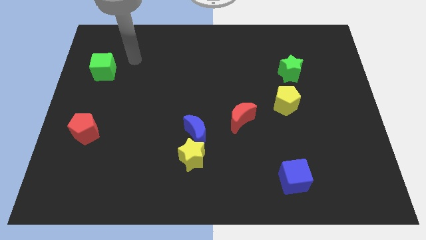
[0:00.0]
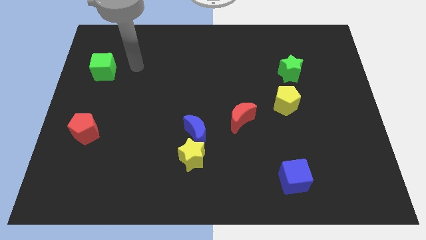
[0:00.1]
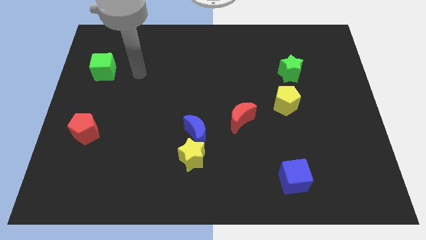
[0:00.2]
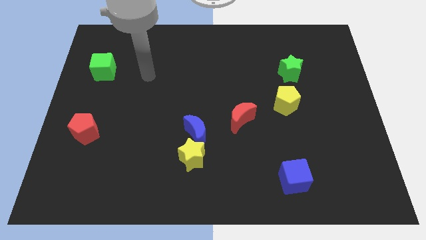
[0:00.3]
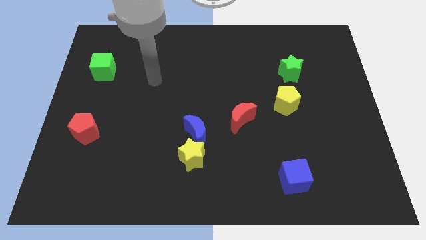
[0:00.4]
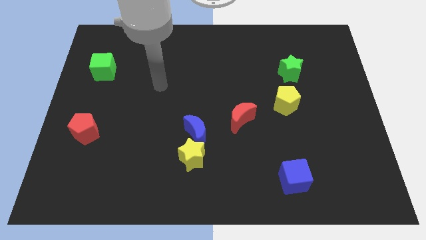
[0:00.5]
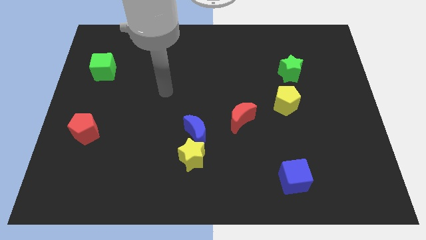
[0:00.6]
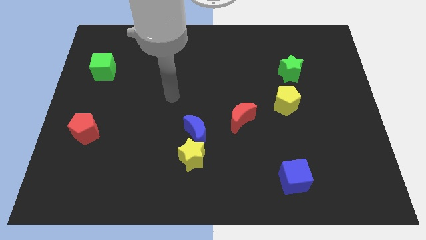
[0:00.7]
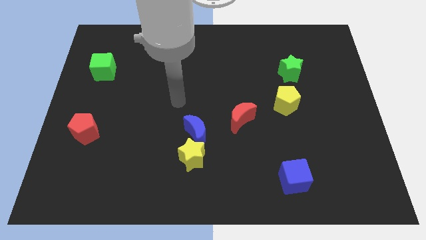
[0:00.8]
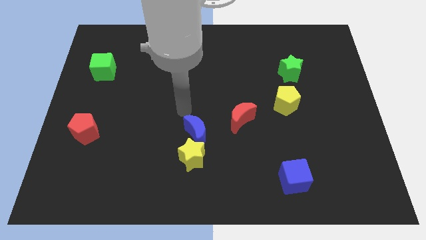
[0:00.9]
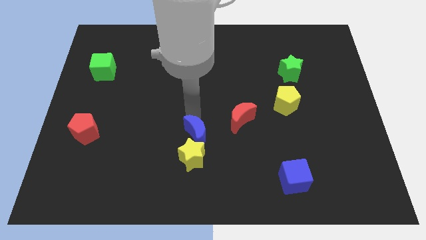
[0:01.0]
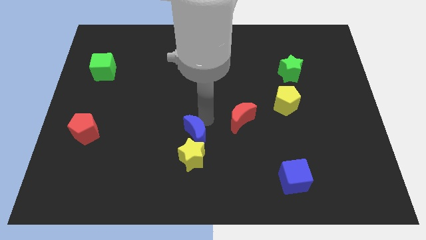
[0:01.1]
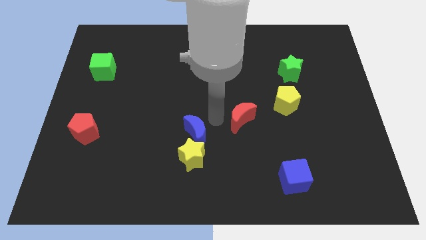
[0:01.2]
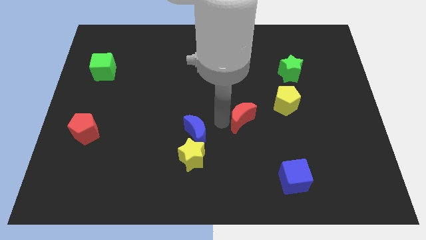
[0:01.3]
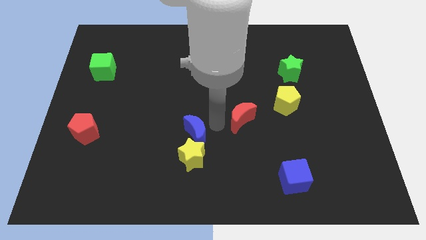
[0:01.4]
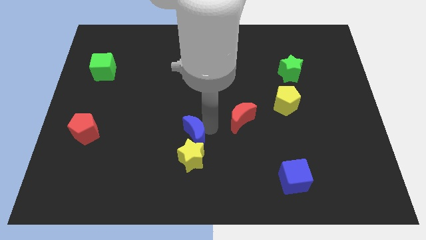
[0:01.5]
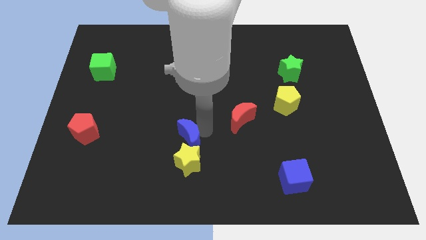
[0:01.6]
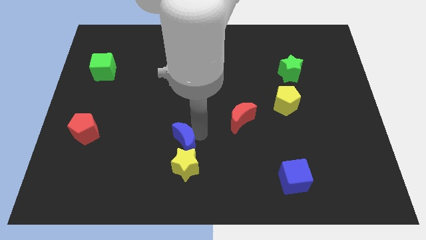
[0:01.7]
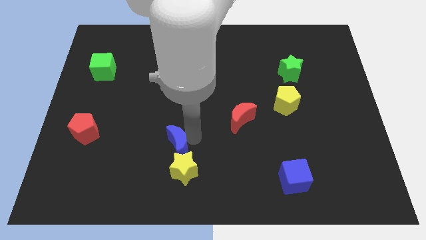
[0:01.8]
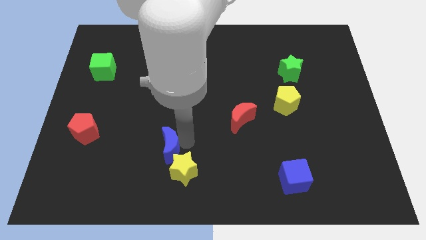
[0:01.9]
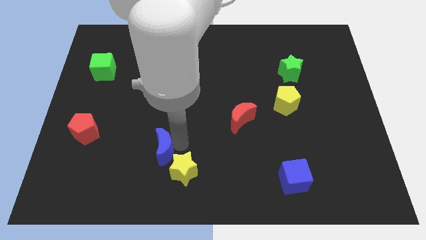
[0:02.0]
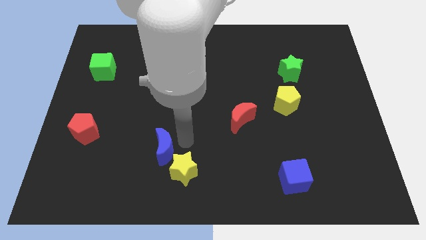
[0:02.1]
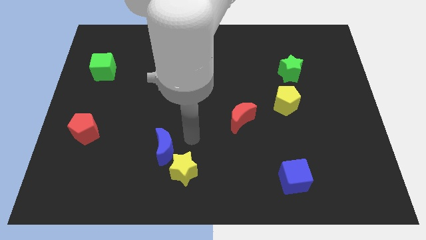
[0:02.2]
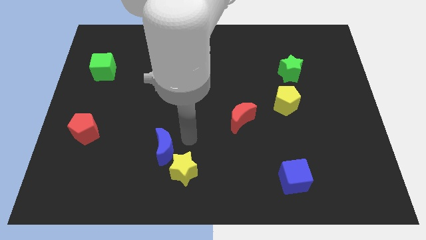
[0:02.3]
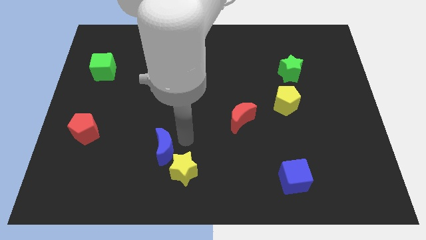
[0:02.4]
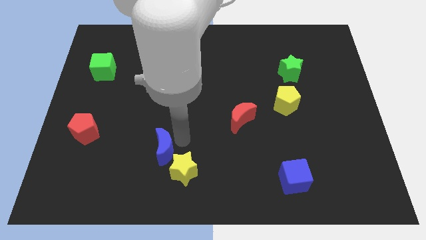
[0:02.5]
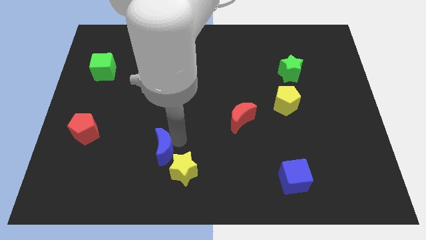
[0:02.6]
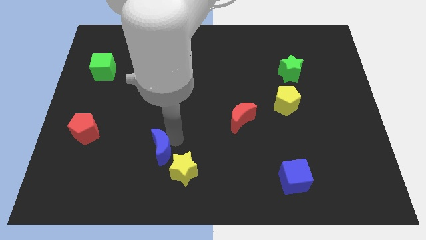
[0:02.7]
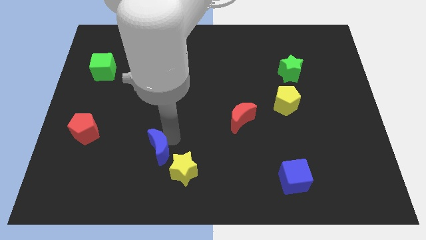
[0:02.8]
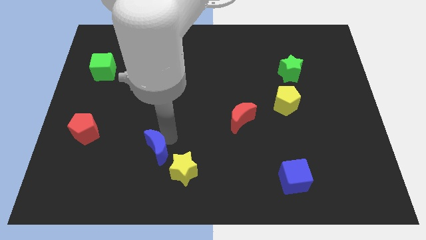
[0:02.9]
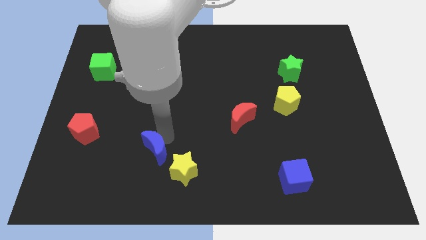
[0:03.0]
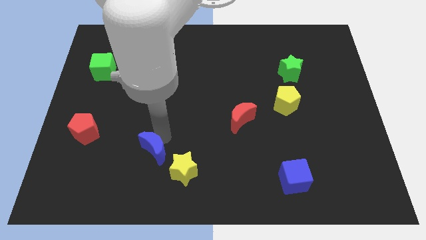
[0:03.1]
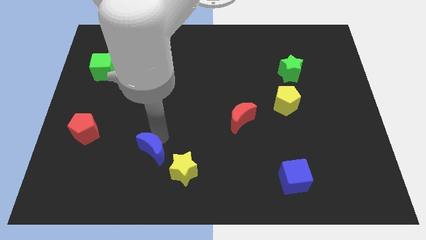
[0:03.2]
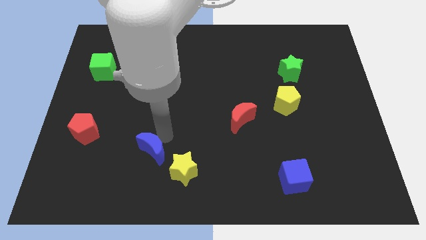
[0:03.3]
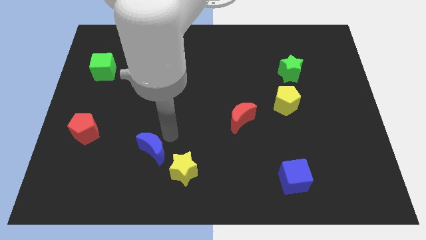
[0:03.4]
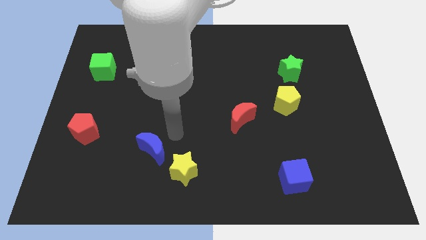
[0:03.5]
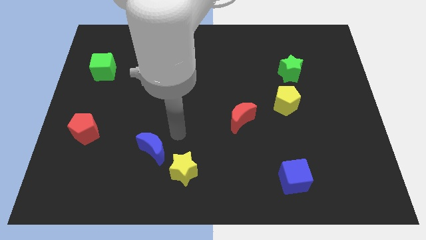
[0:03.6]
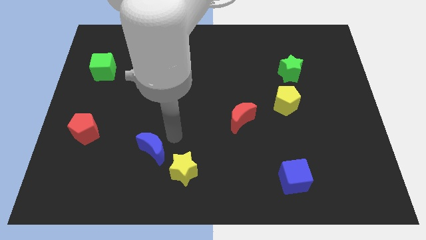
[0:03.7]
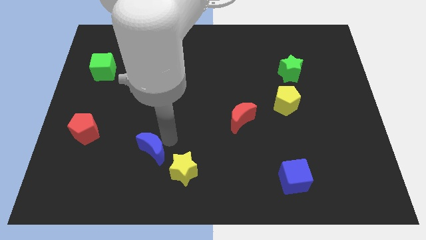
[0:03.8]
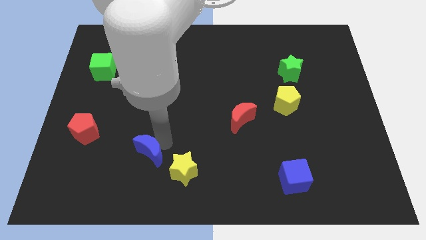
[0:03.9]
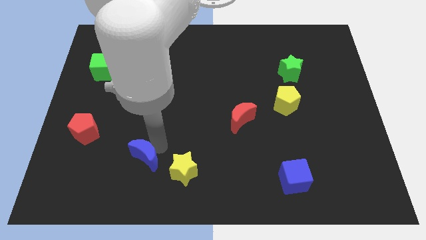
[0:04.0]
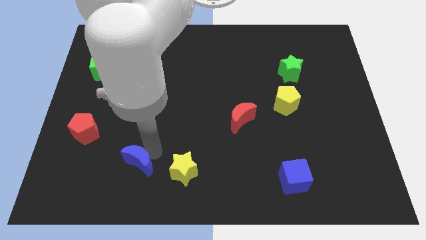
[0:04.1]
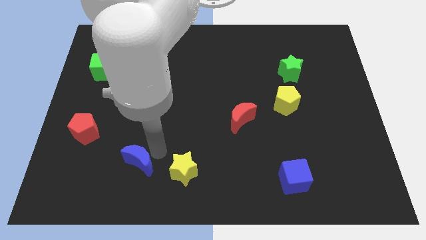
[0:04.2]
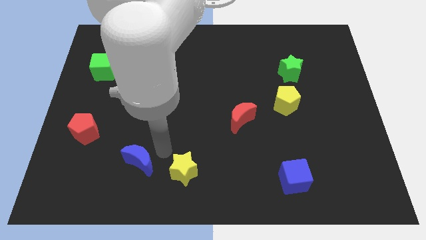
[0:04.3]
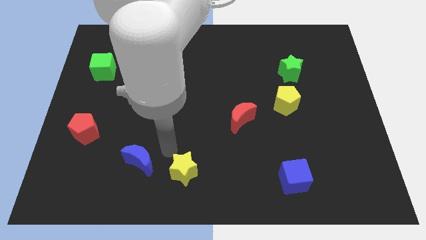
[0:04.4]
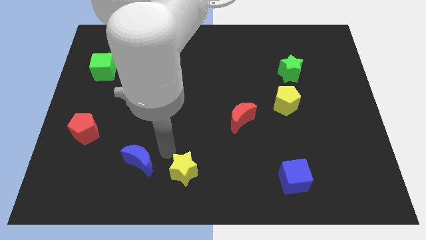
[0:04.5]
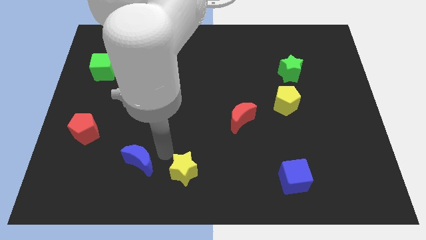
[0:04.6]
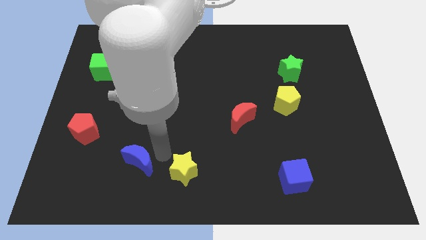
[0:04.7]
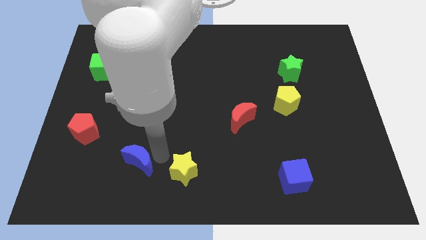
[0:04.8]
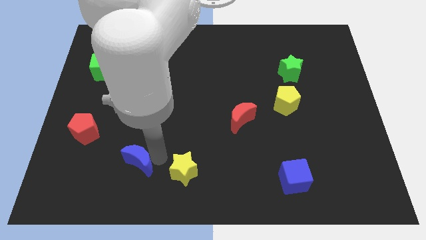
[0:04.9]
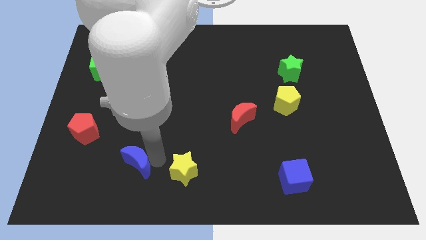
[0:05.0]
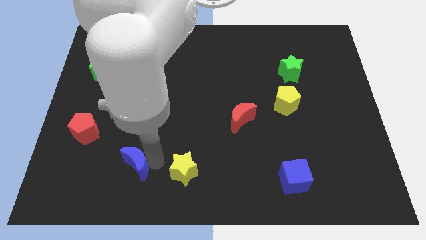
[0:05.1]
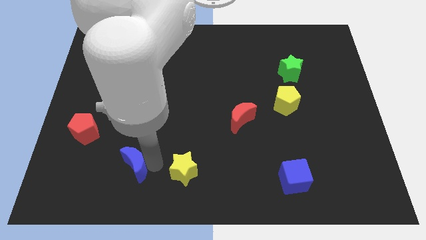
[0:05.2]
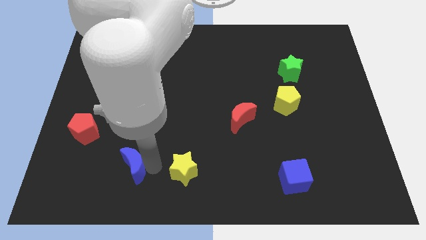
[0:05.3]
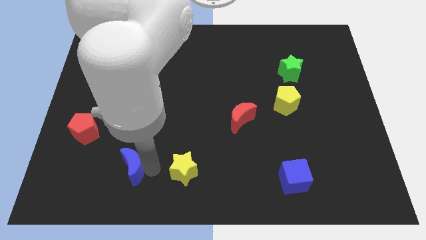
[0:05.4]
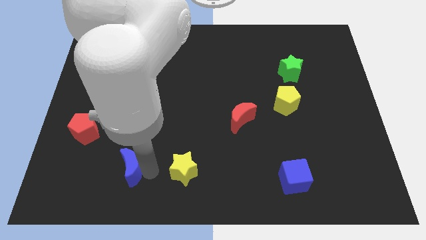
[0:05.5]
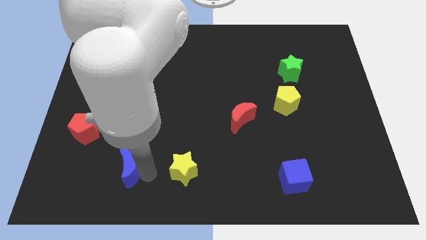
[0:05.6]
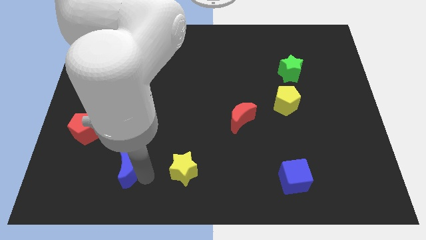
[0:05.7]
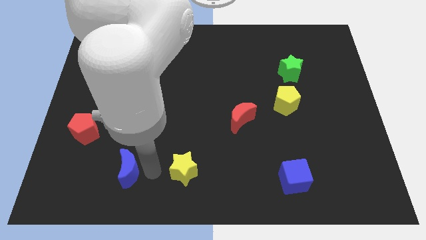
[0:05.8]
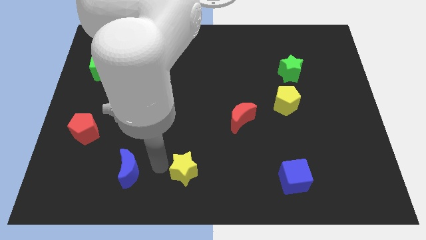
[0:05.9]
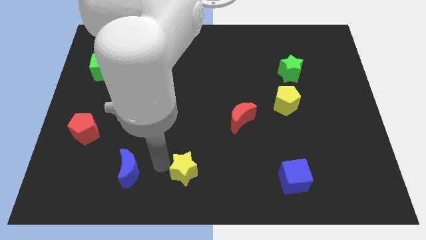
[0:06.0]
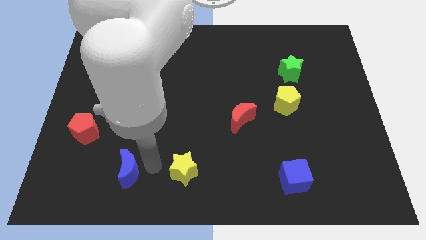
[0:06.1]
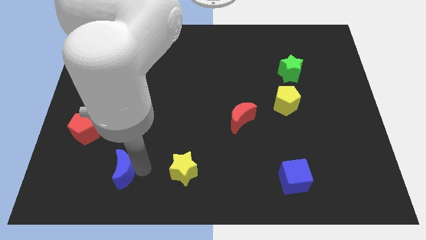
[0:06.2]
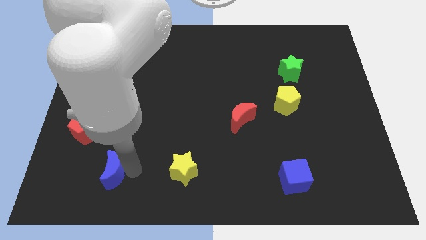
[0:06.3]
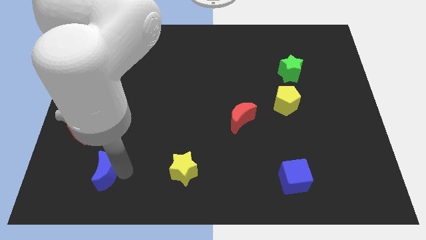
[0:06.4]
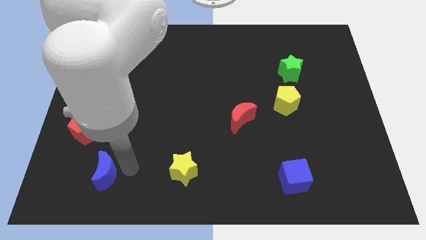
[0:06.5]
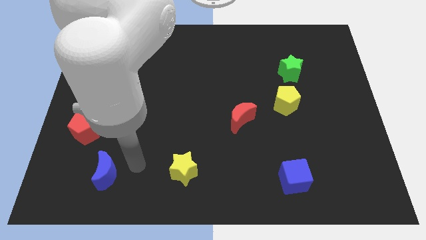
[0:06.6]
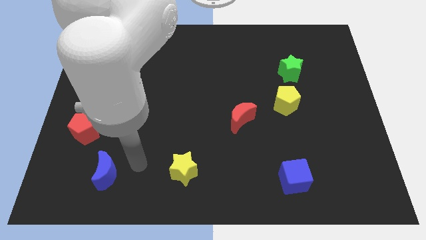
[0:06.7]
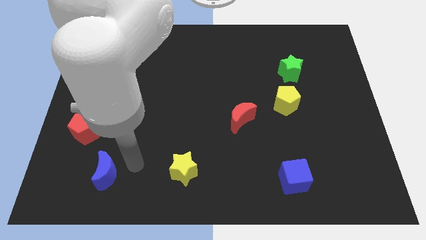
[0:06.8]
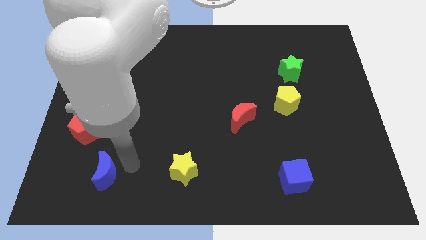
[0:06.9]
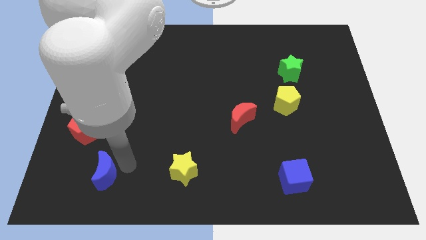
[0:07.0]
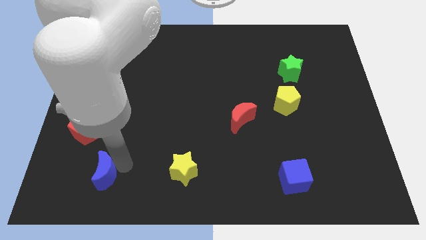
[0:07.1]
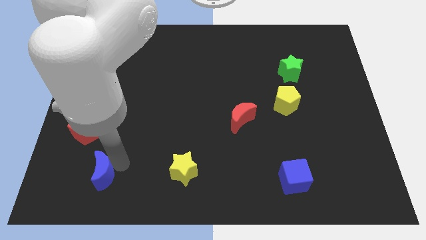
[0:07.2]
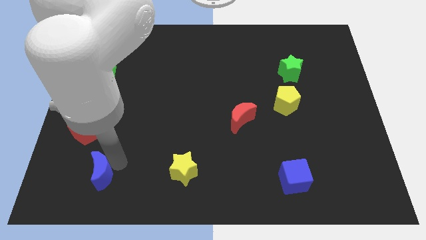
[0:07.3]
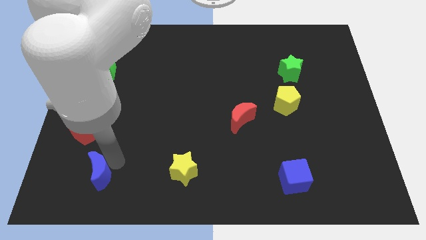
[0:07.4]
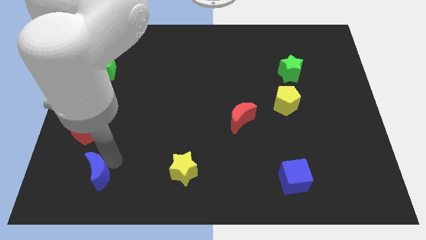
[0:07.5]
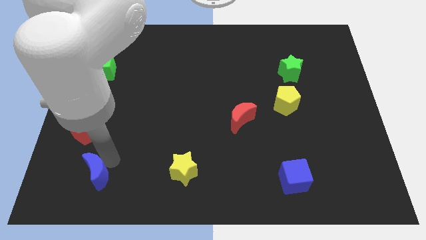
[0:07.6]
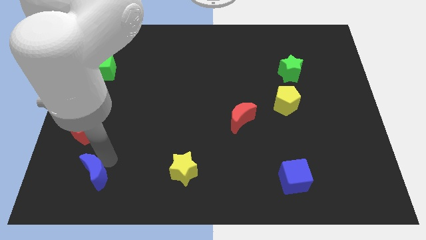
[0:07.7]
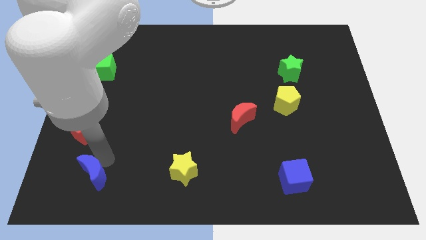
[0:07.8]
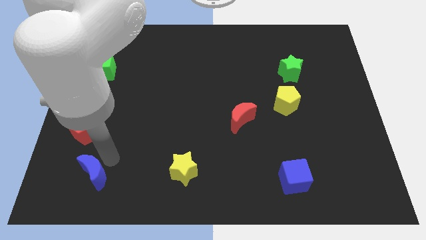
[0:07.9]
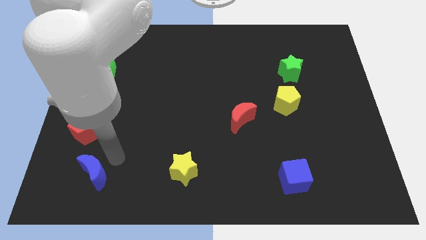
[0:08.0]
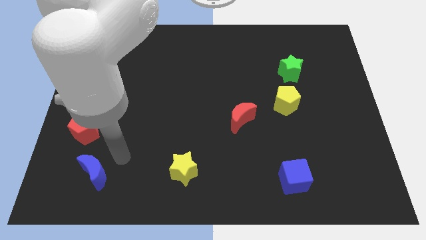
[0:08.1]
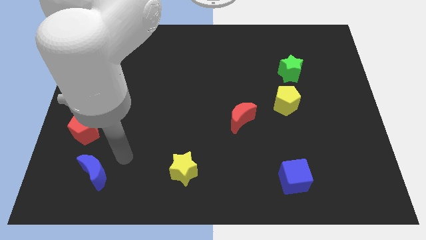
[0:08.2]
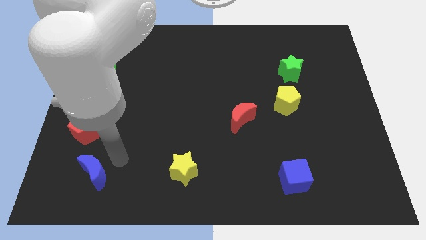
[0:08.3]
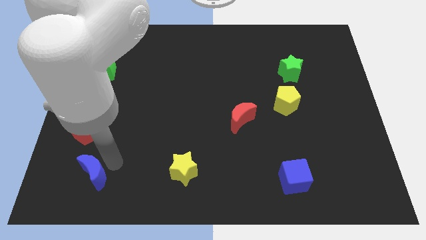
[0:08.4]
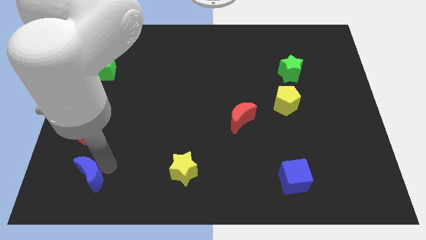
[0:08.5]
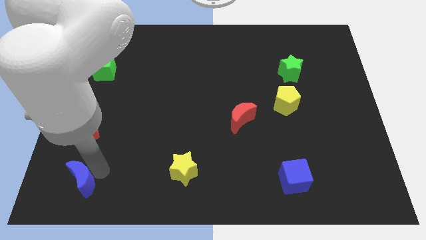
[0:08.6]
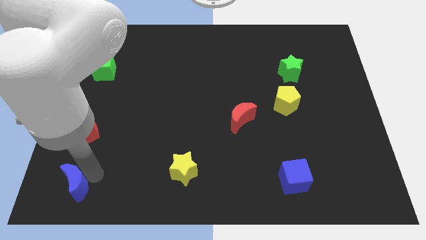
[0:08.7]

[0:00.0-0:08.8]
move the blue moon to the bottom left of the board
